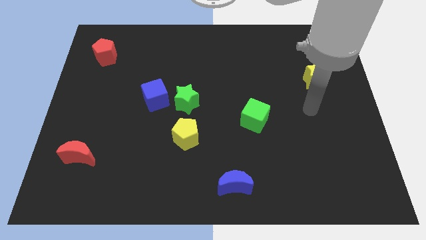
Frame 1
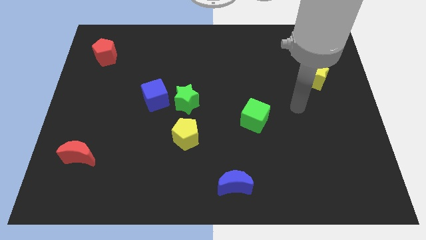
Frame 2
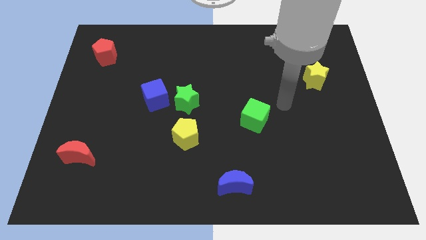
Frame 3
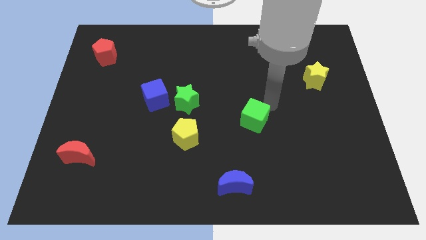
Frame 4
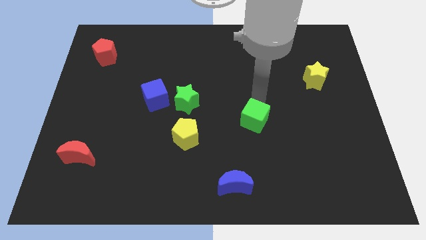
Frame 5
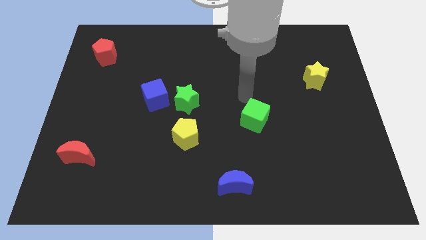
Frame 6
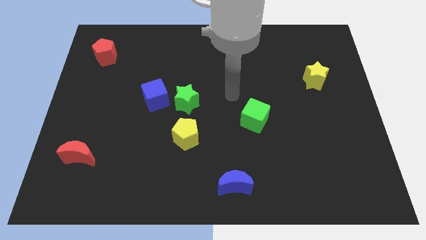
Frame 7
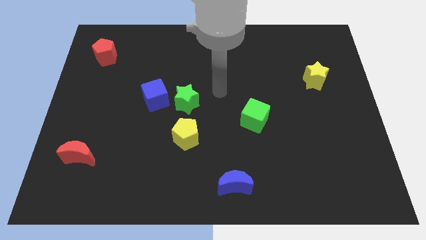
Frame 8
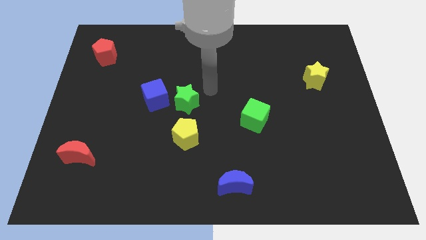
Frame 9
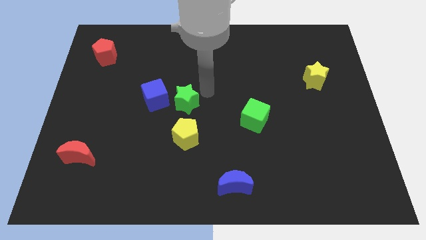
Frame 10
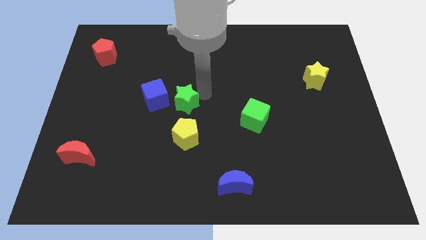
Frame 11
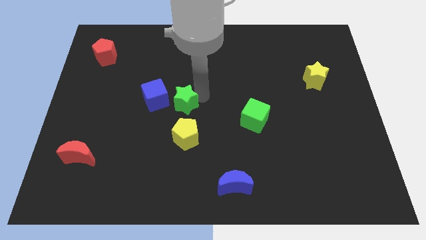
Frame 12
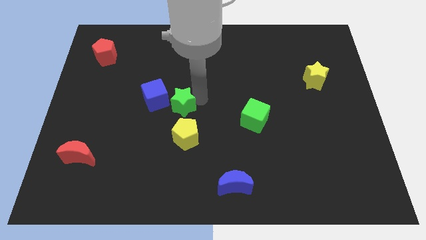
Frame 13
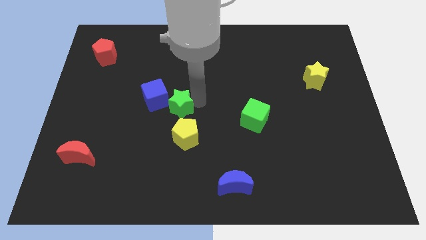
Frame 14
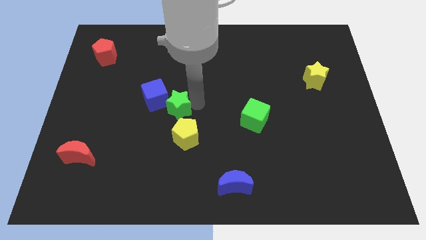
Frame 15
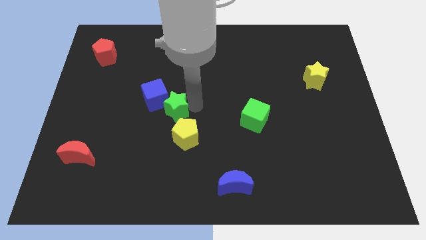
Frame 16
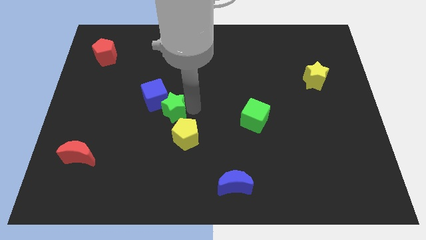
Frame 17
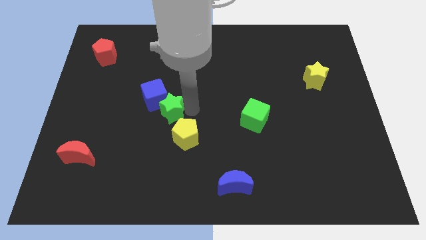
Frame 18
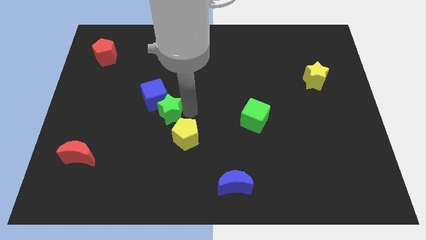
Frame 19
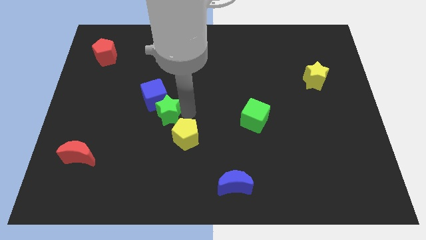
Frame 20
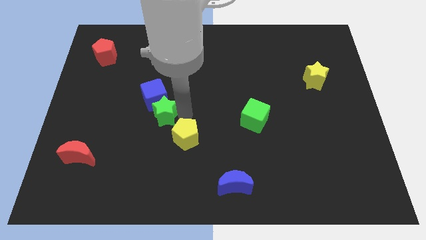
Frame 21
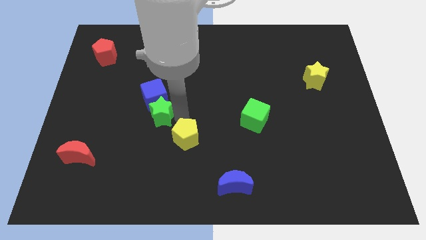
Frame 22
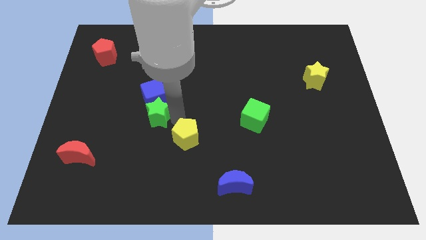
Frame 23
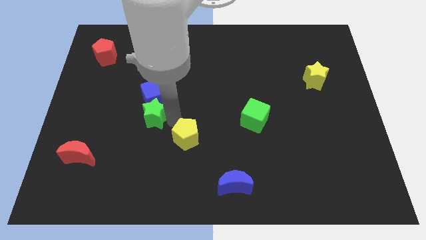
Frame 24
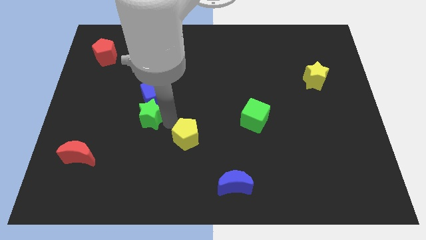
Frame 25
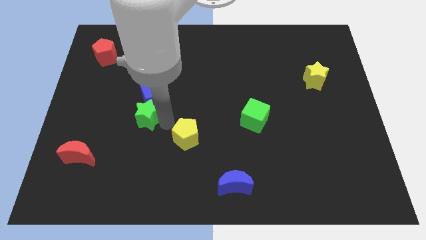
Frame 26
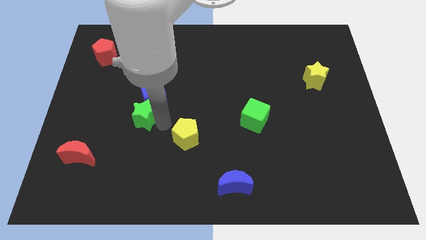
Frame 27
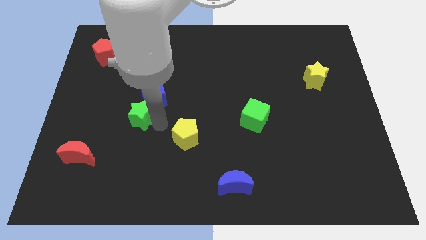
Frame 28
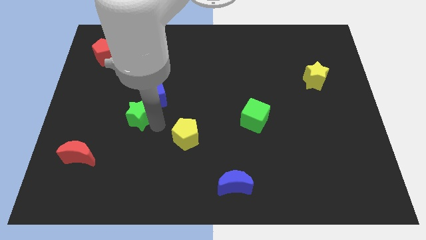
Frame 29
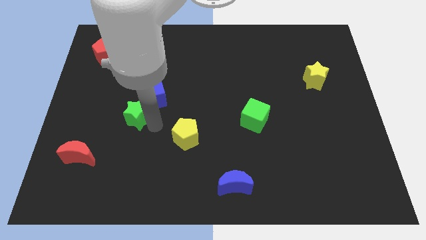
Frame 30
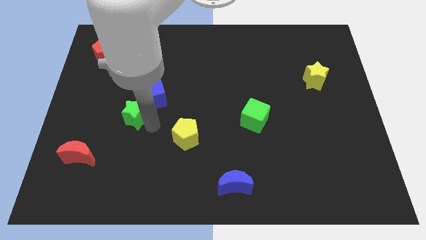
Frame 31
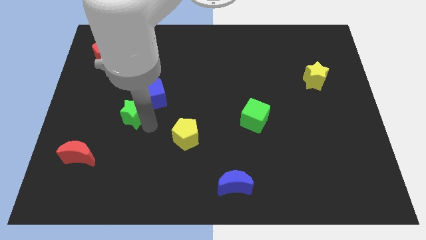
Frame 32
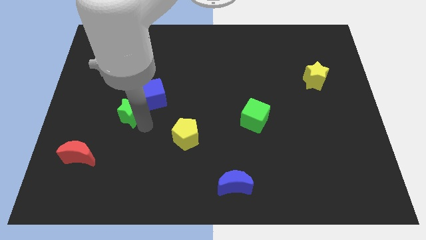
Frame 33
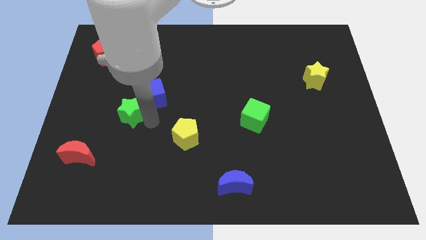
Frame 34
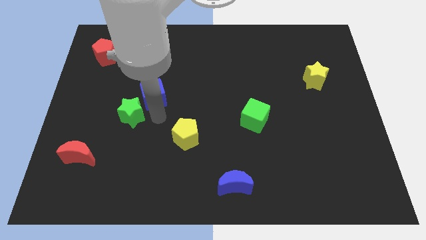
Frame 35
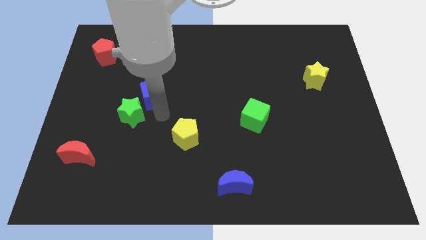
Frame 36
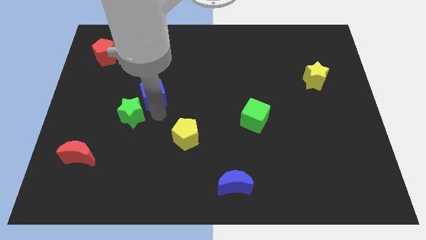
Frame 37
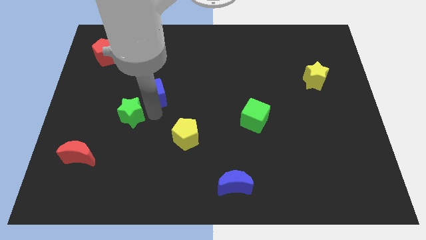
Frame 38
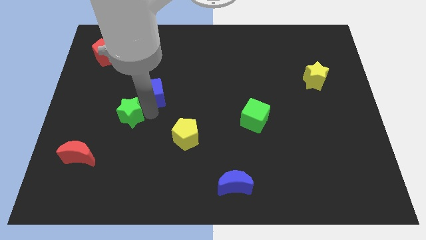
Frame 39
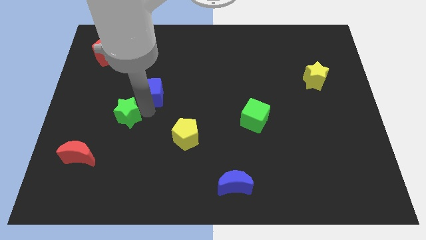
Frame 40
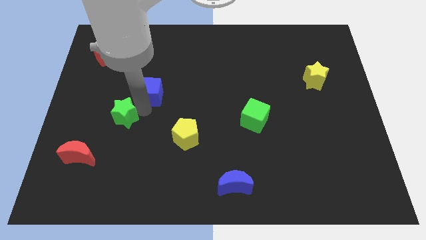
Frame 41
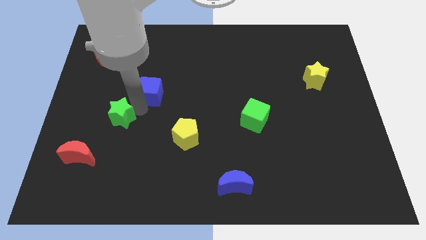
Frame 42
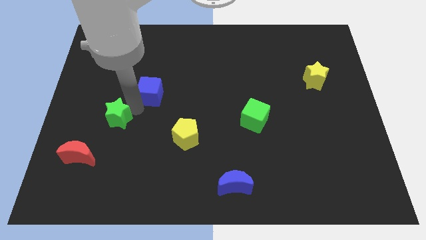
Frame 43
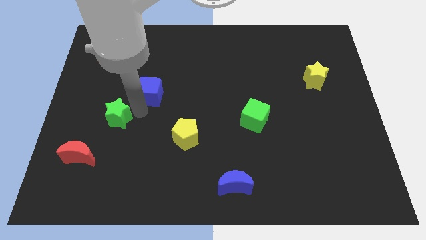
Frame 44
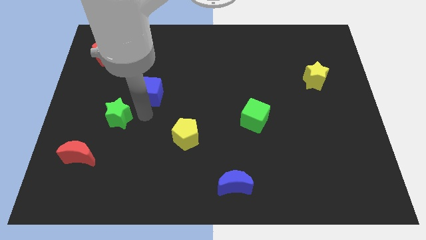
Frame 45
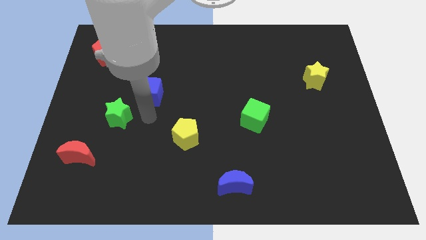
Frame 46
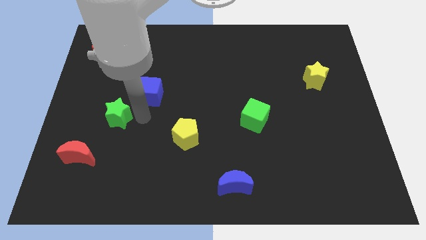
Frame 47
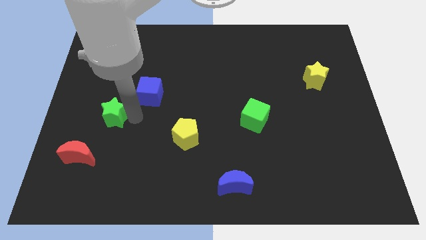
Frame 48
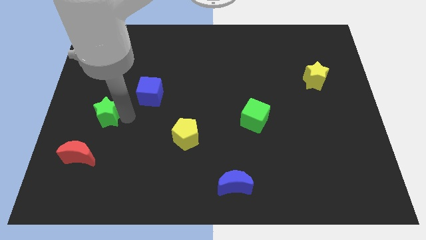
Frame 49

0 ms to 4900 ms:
slide the green star to the top of the red moon

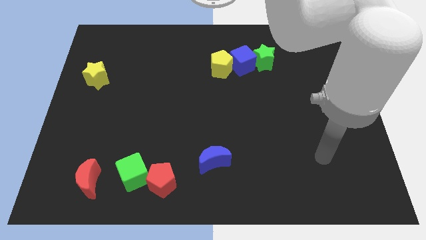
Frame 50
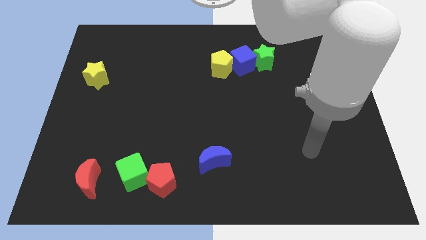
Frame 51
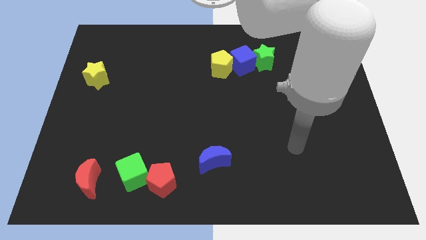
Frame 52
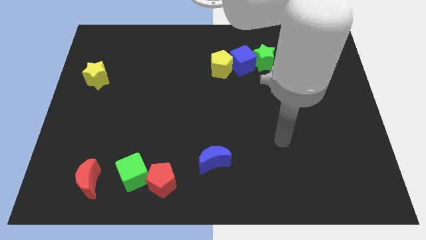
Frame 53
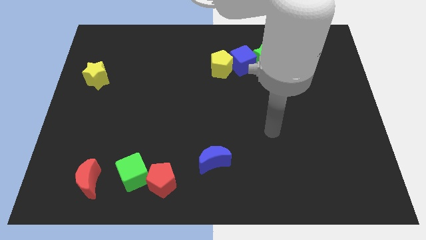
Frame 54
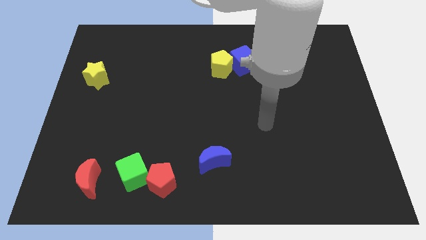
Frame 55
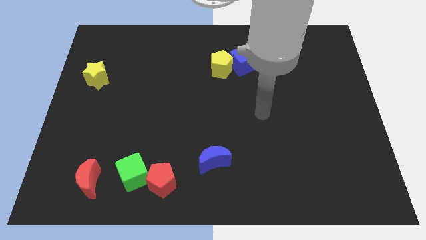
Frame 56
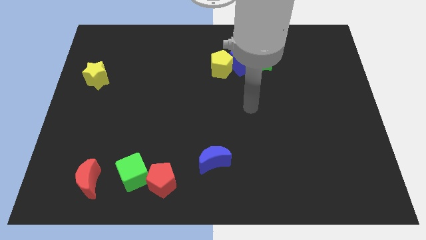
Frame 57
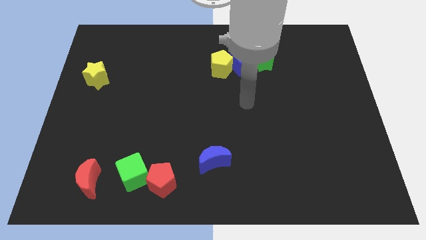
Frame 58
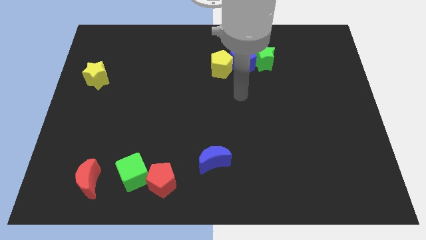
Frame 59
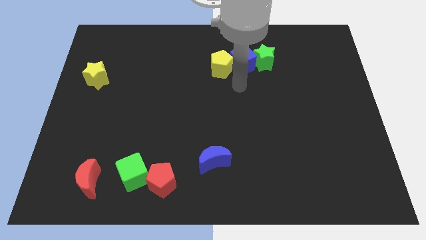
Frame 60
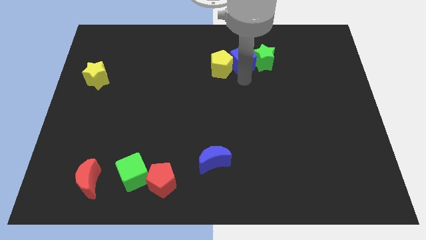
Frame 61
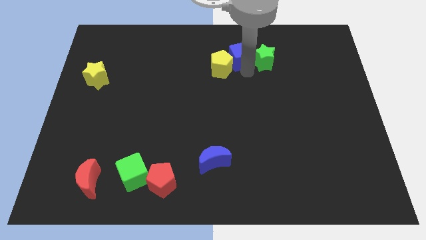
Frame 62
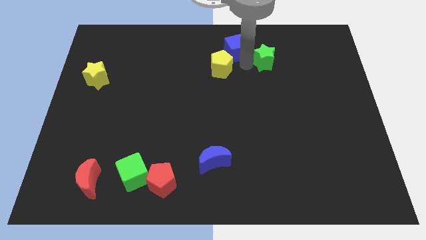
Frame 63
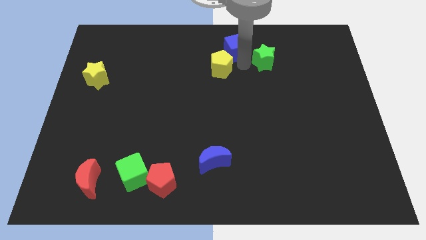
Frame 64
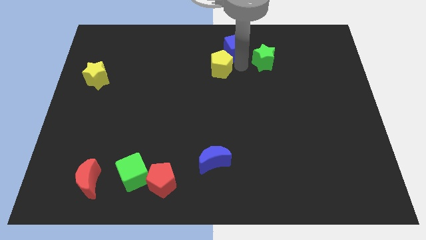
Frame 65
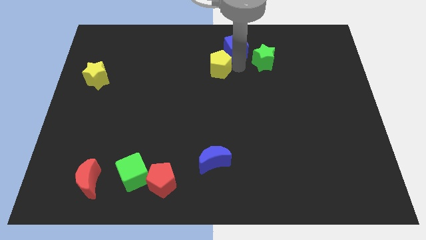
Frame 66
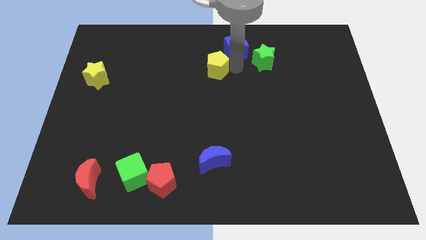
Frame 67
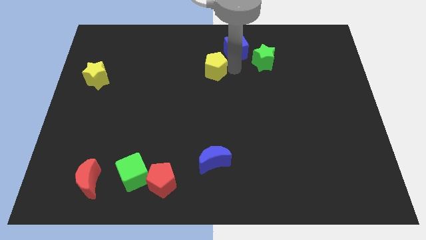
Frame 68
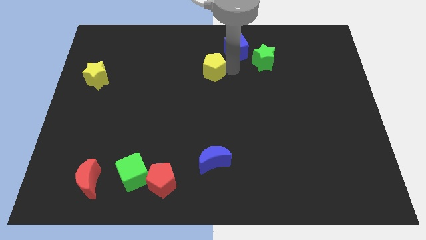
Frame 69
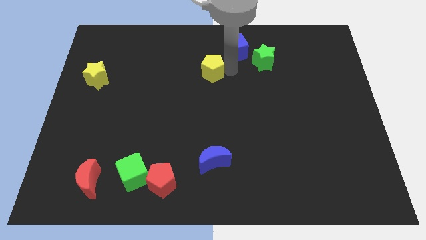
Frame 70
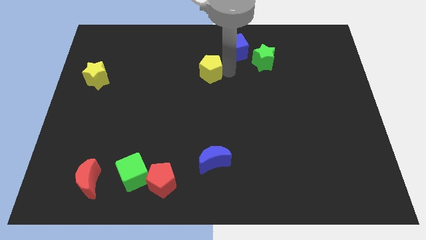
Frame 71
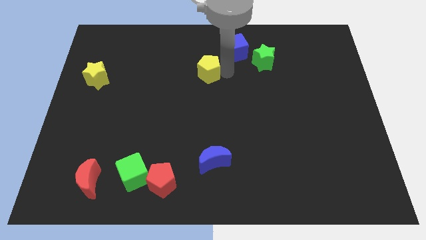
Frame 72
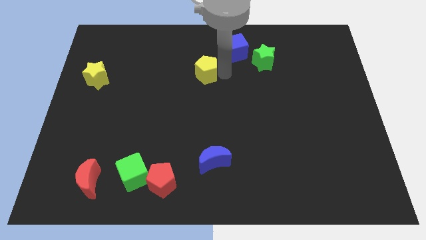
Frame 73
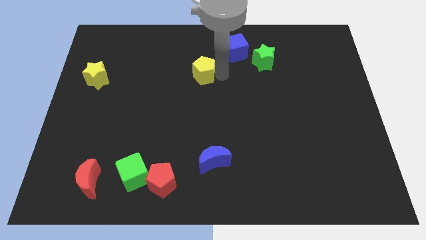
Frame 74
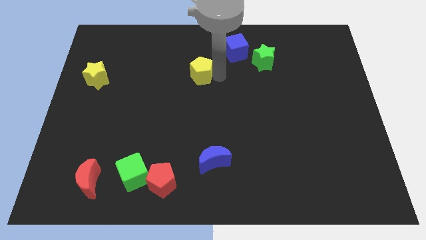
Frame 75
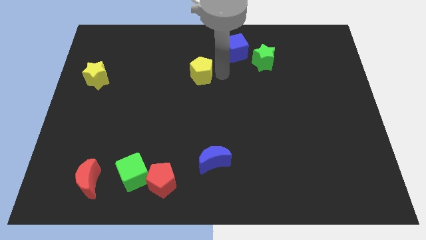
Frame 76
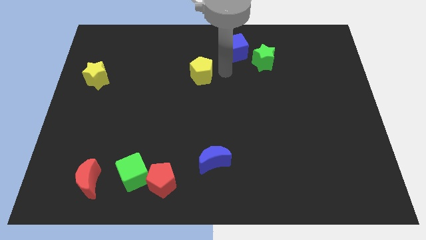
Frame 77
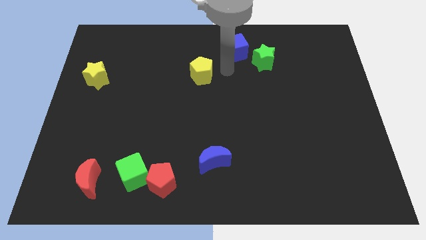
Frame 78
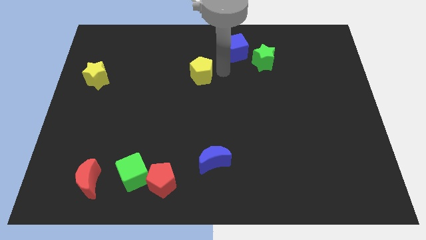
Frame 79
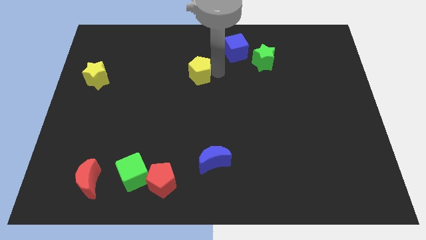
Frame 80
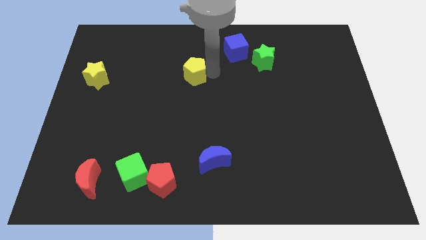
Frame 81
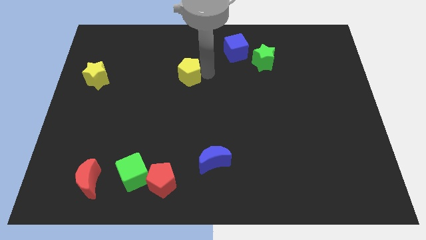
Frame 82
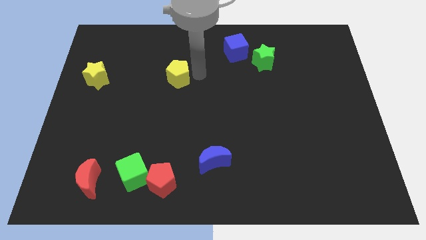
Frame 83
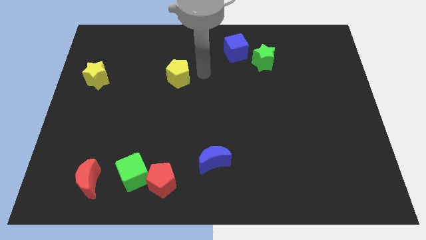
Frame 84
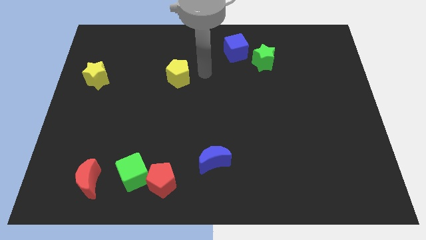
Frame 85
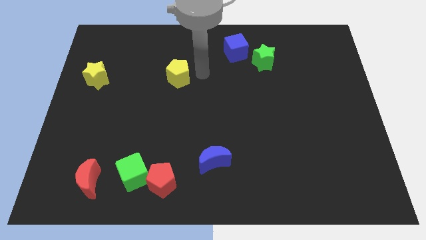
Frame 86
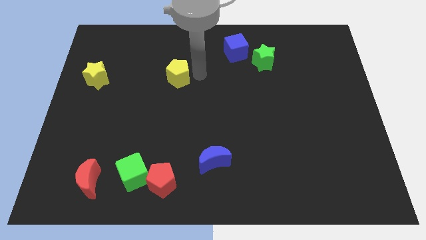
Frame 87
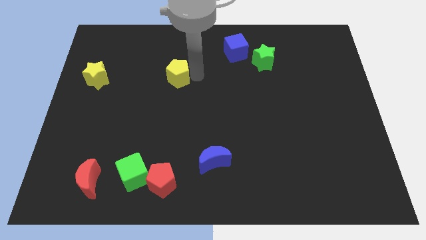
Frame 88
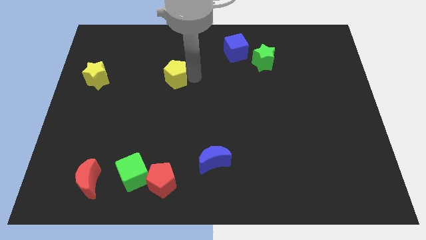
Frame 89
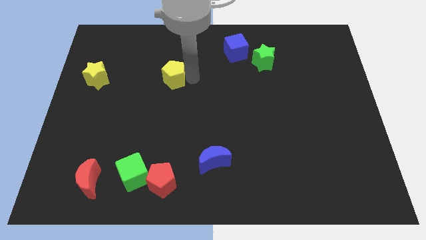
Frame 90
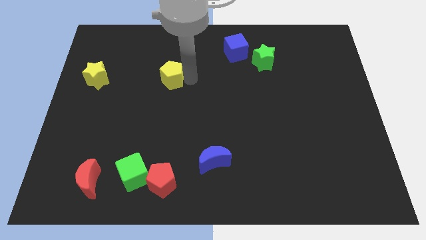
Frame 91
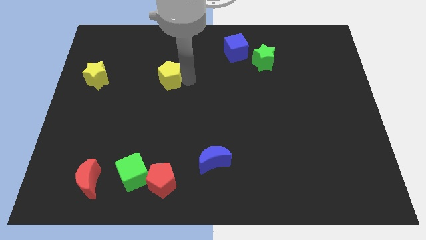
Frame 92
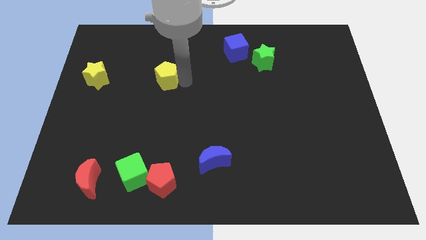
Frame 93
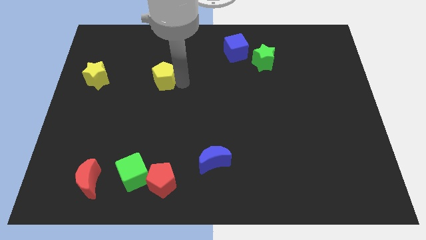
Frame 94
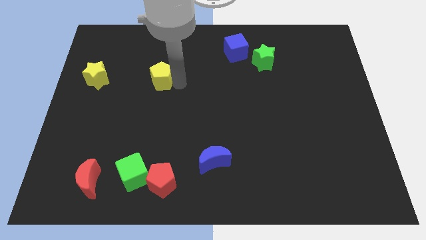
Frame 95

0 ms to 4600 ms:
put the yellow pentagon just right of the yellow star
